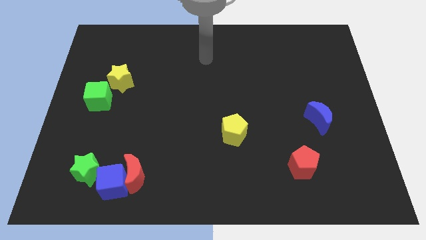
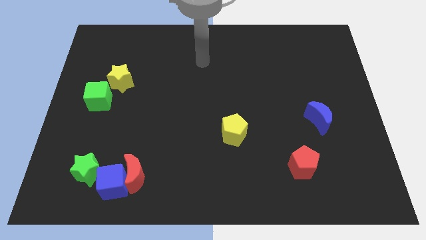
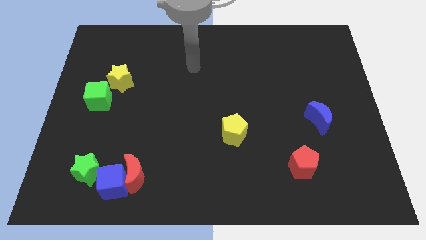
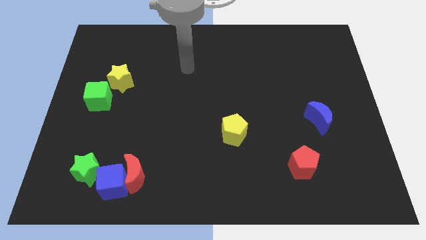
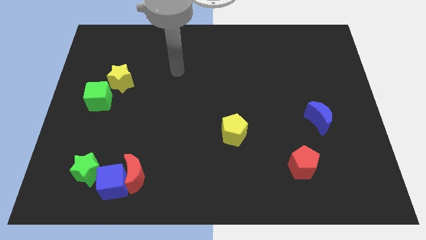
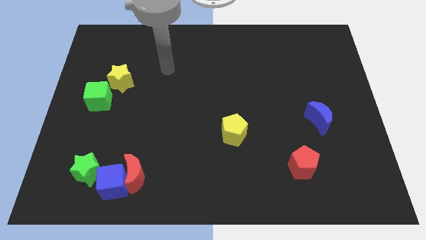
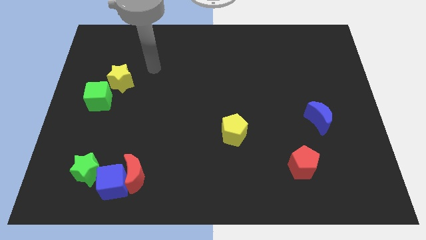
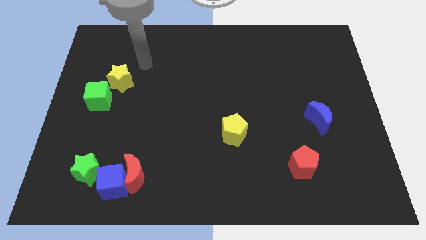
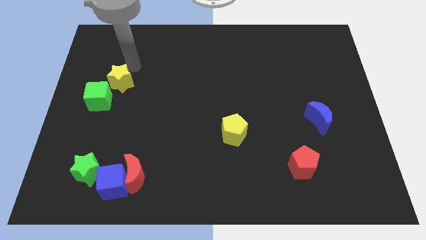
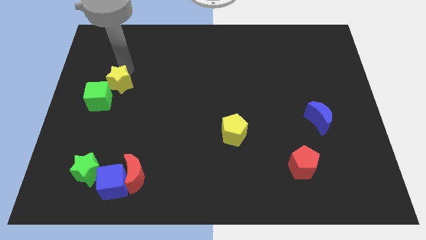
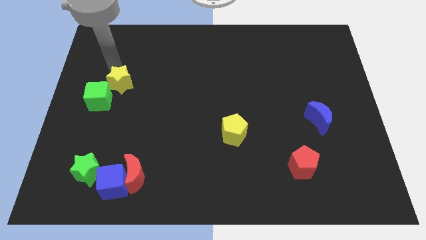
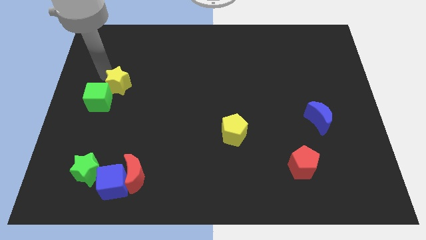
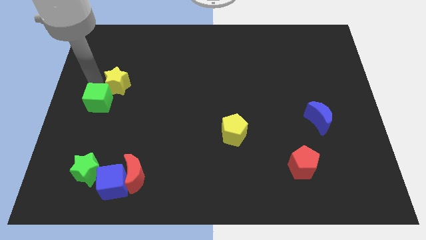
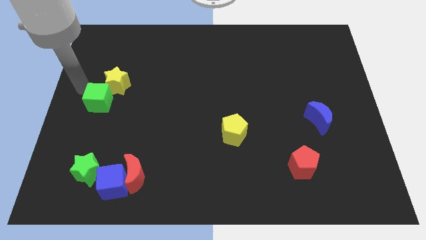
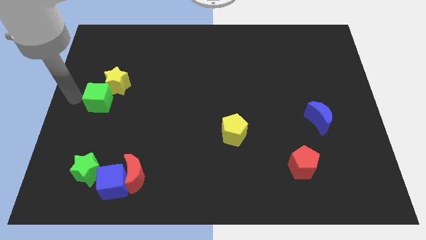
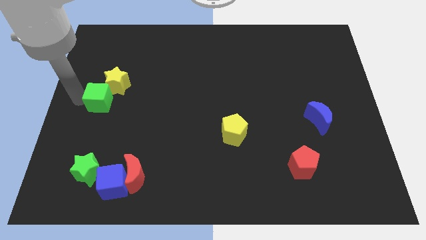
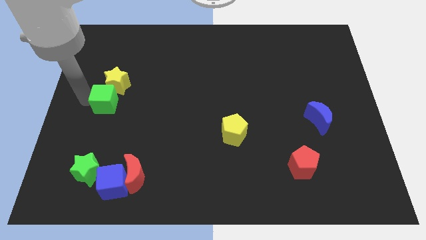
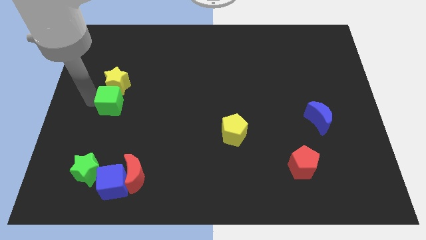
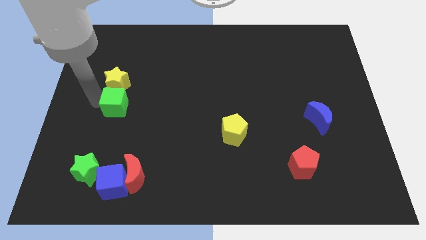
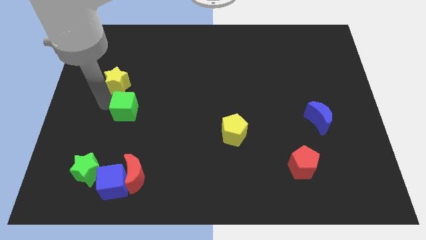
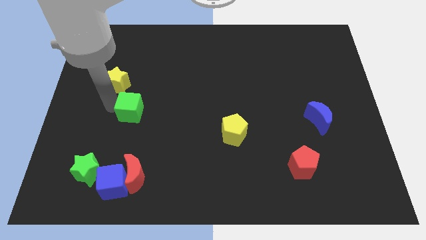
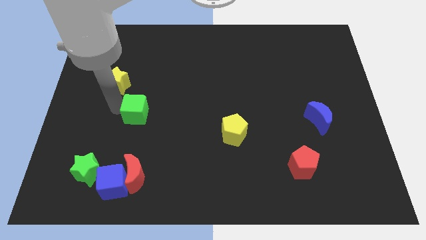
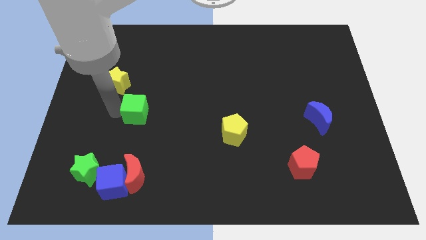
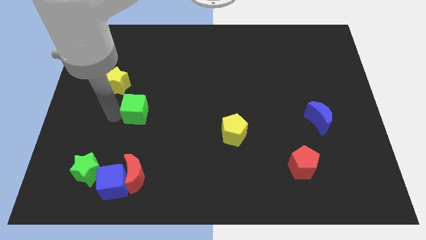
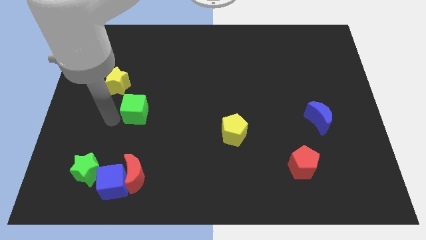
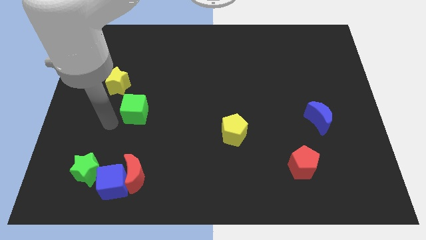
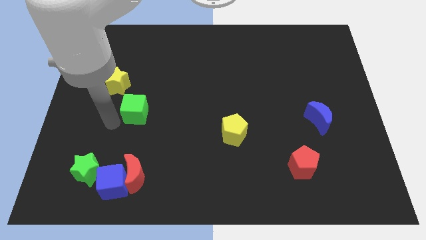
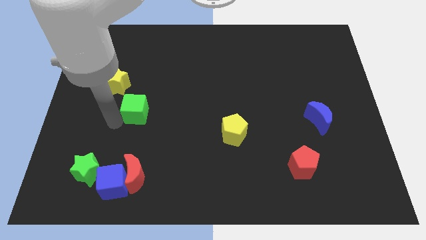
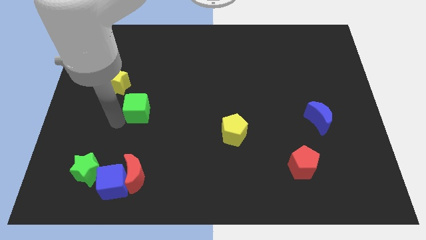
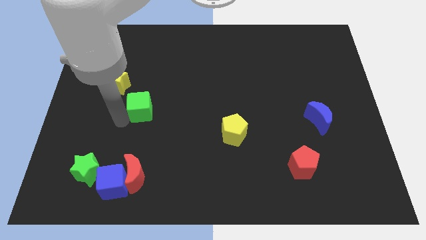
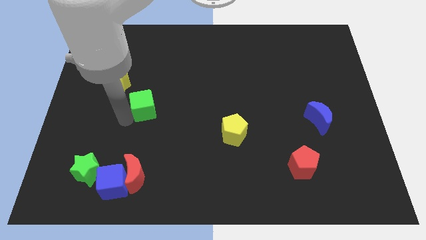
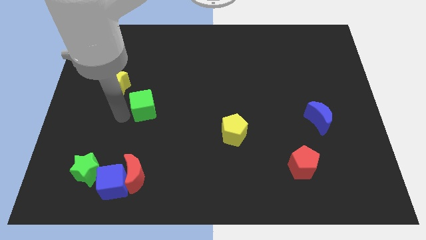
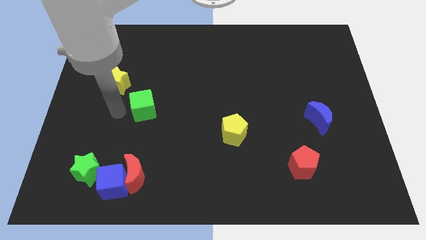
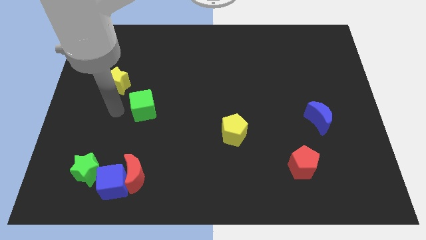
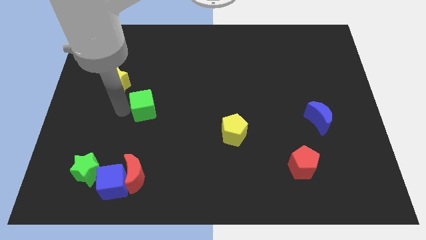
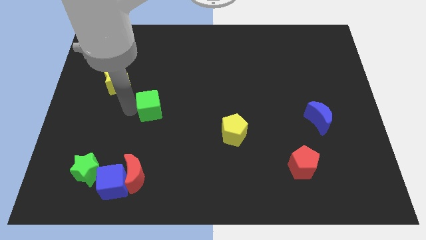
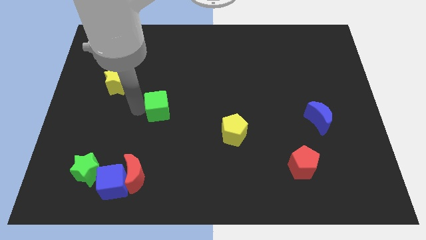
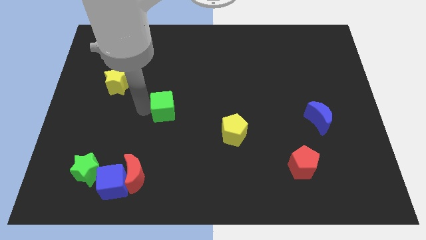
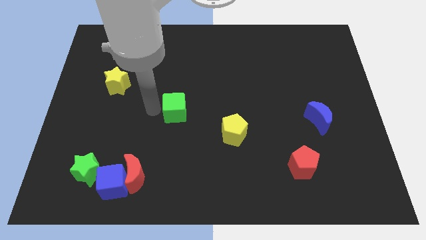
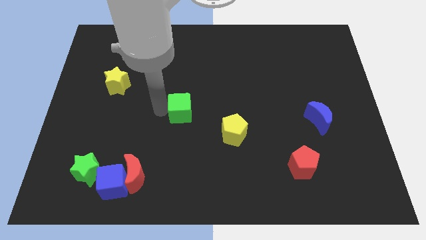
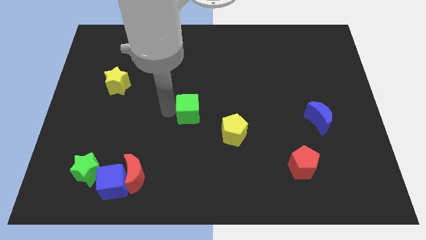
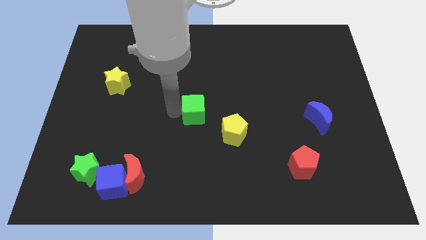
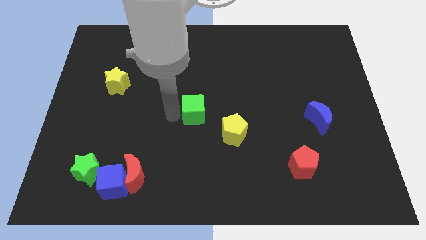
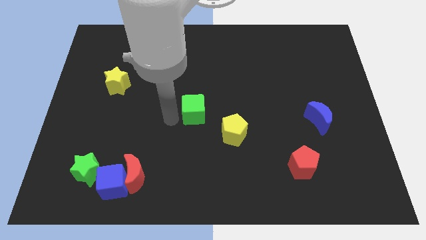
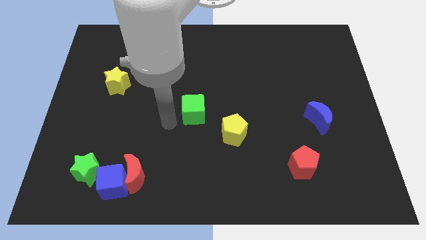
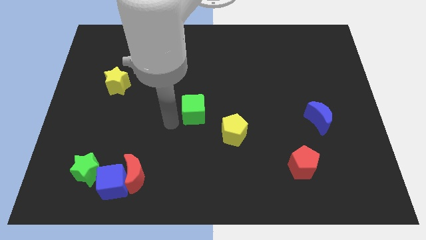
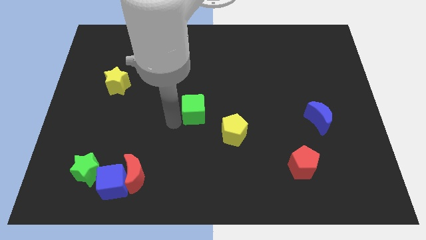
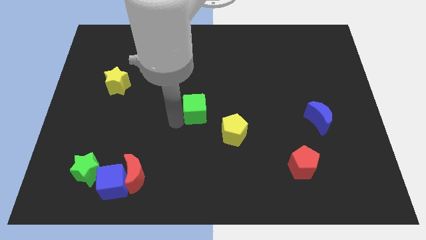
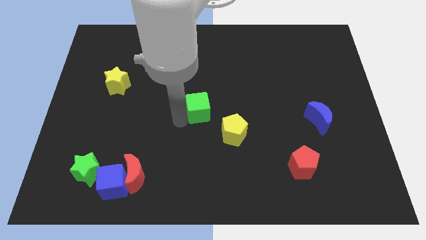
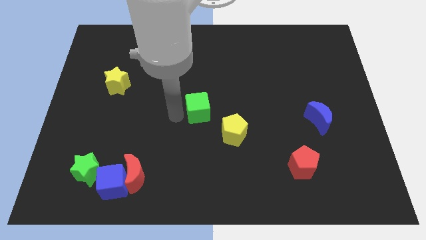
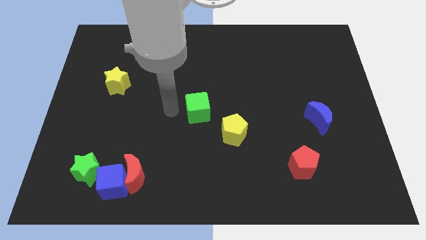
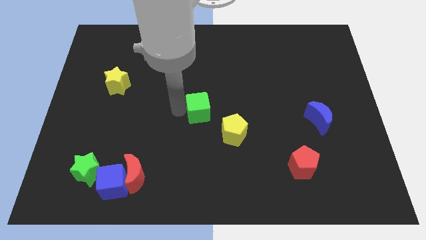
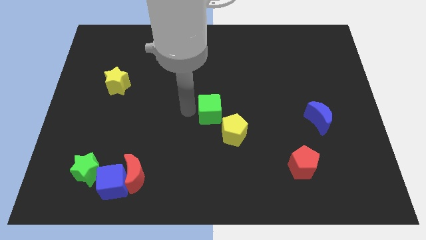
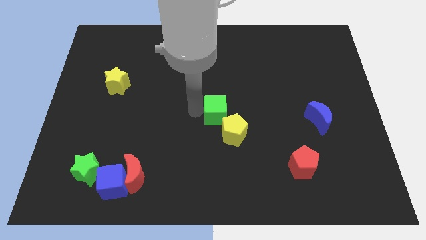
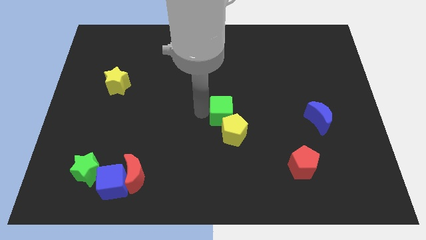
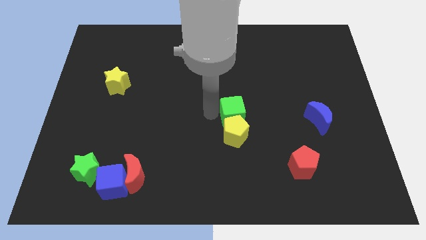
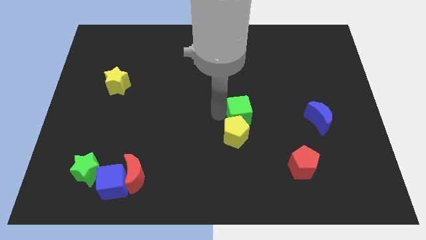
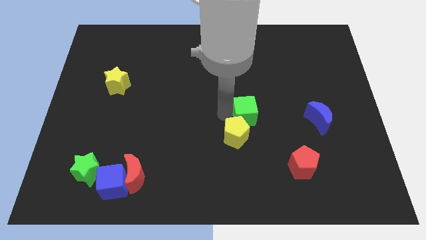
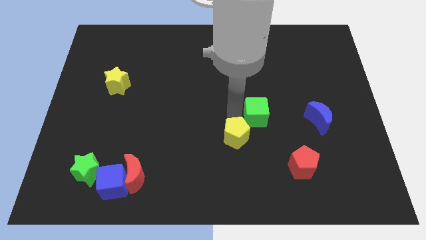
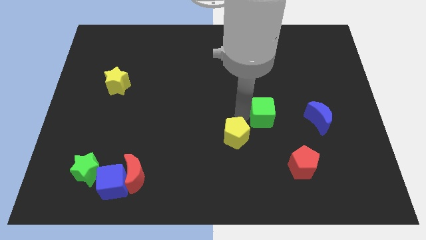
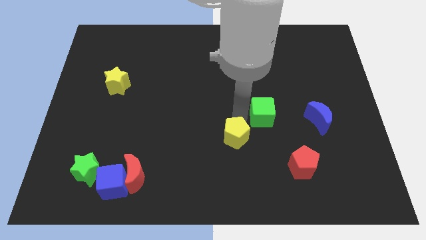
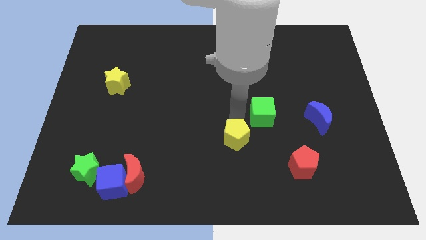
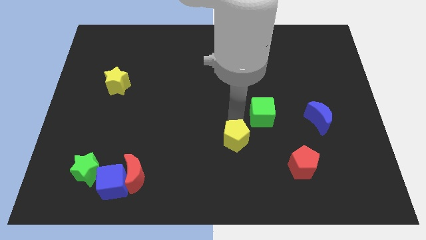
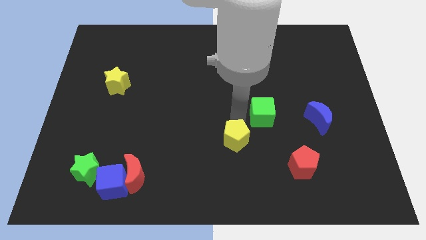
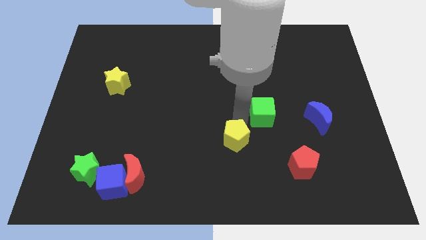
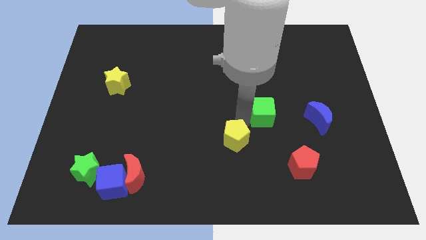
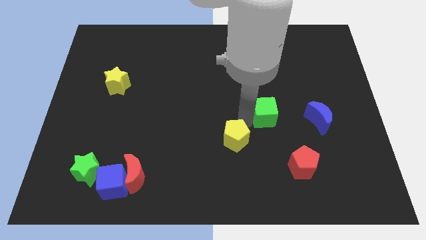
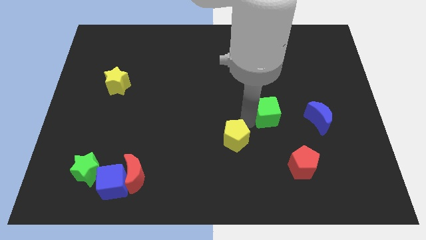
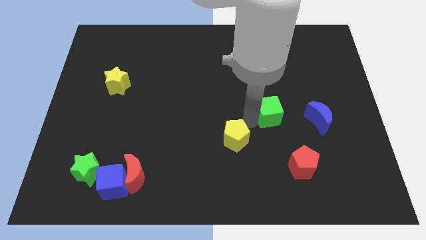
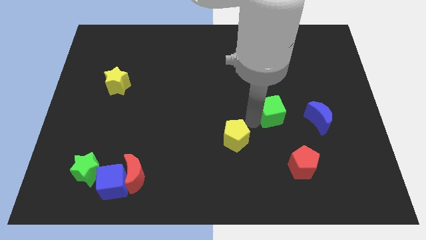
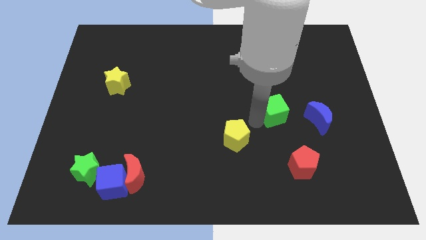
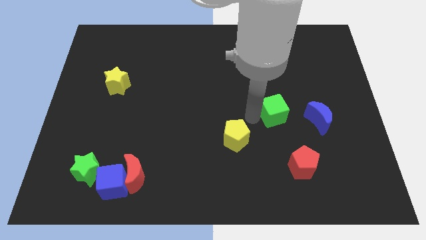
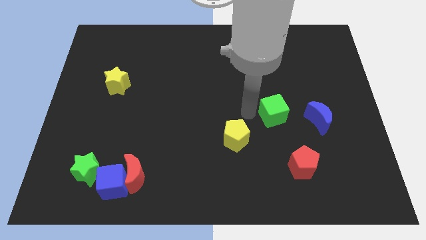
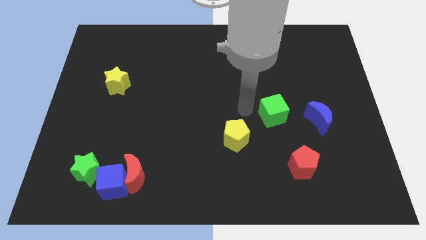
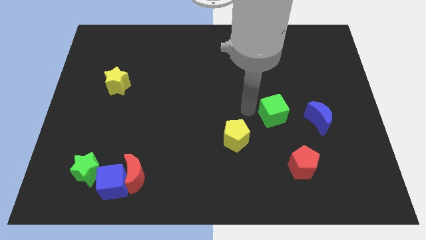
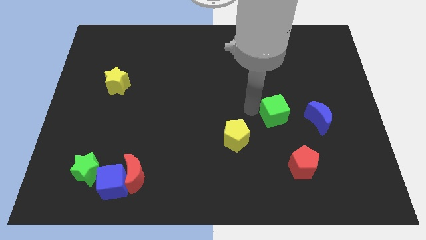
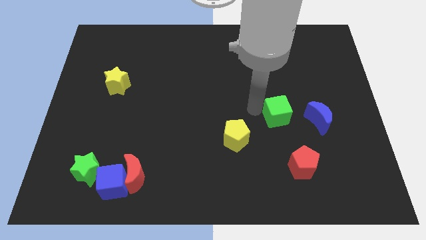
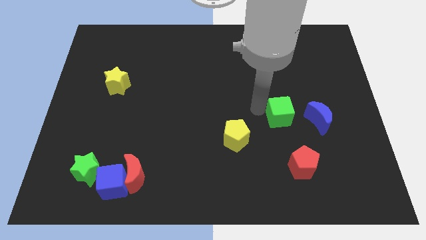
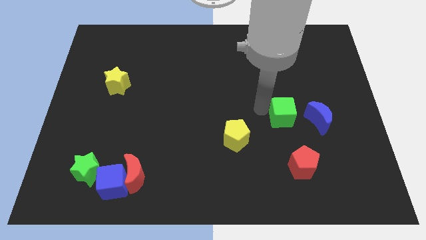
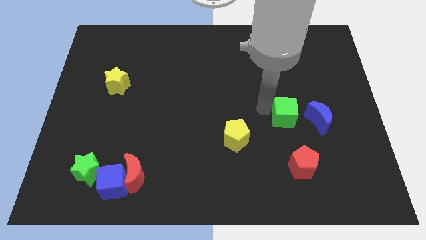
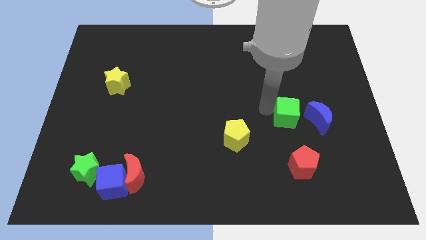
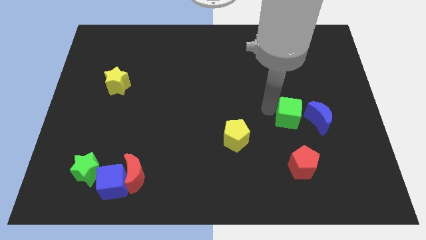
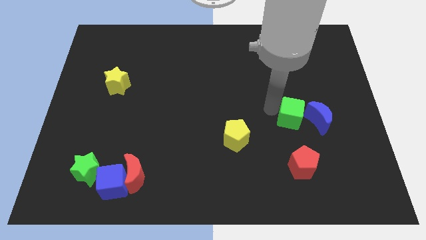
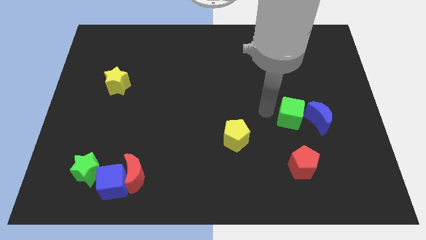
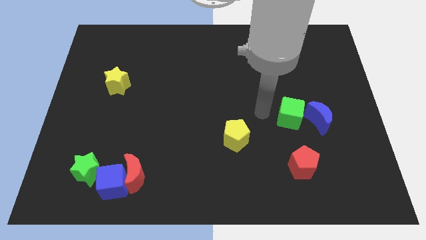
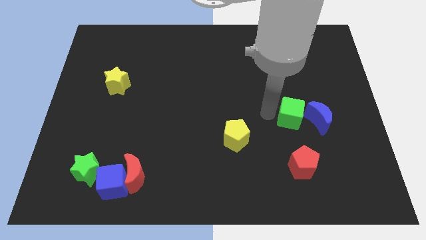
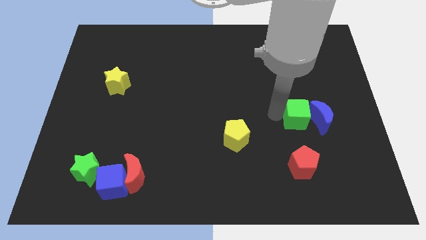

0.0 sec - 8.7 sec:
push the green cube next to the blue moon
